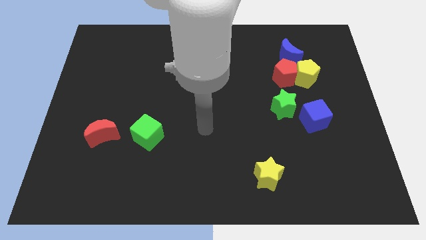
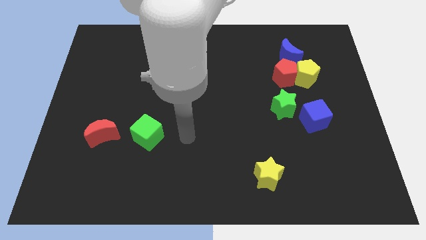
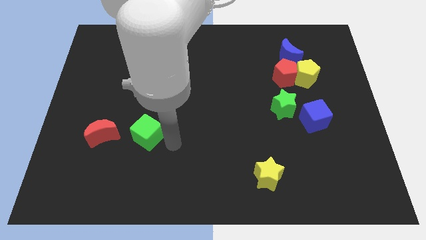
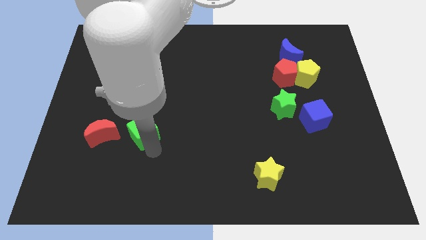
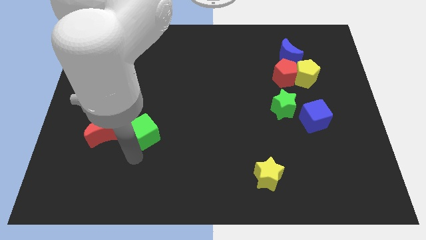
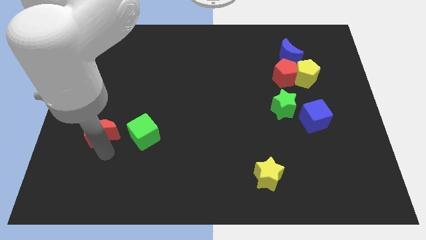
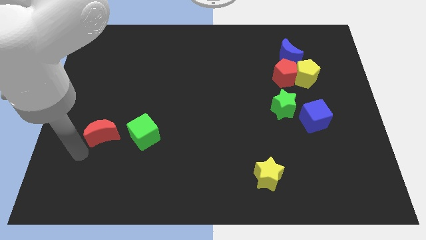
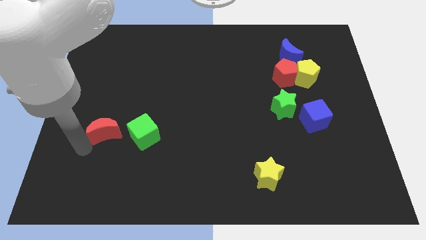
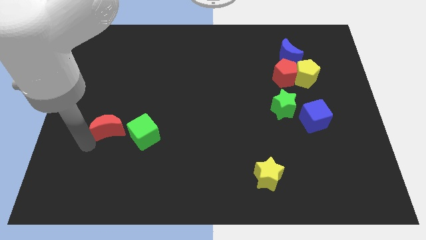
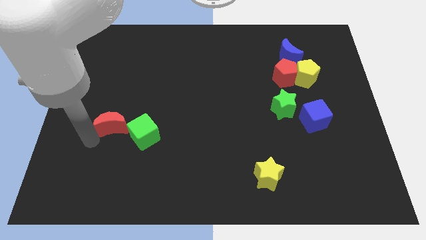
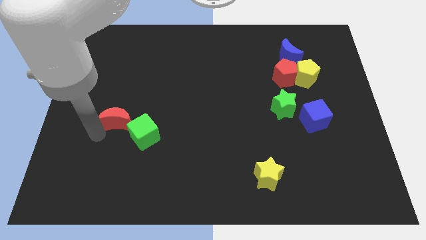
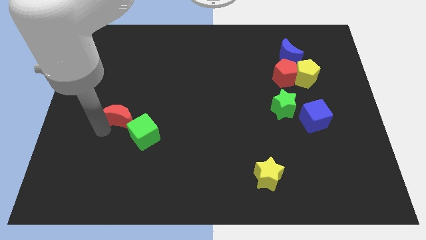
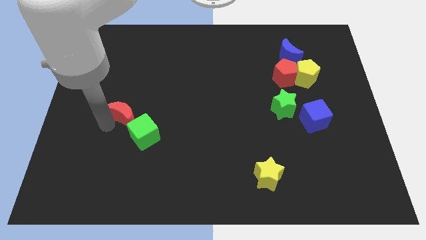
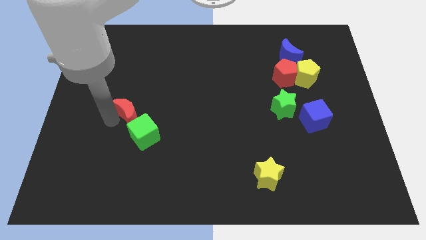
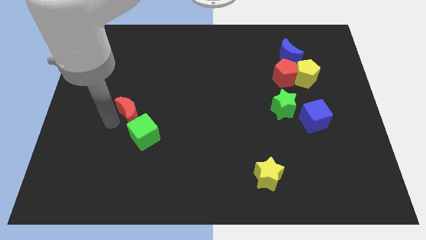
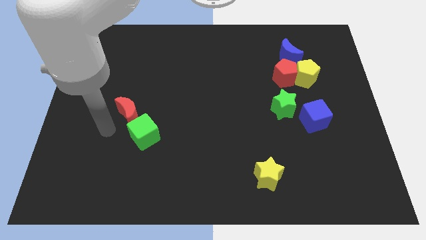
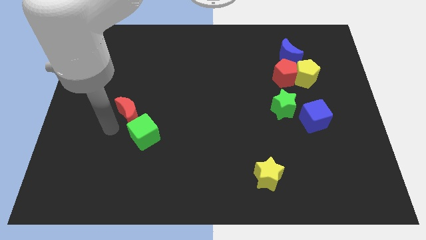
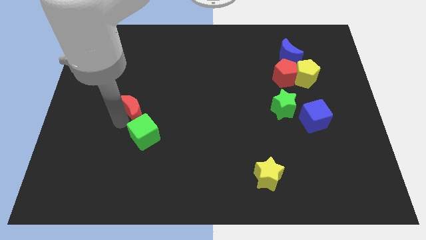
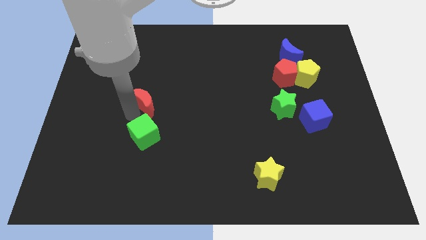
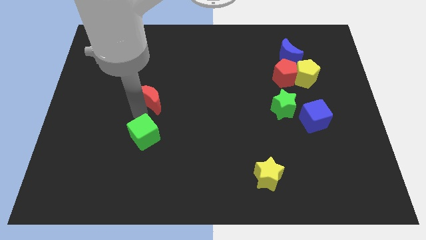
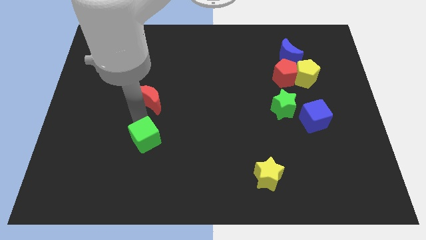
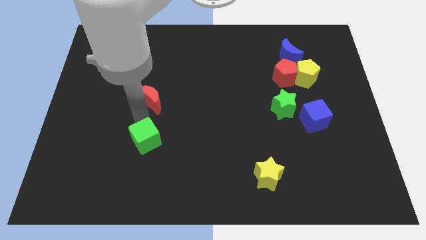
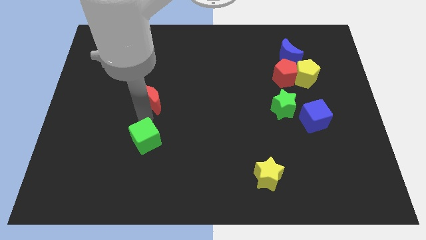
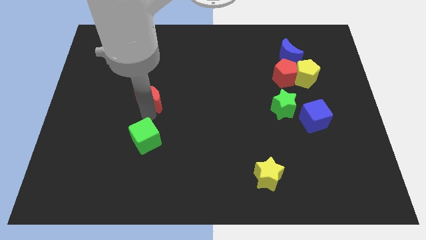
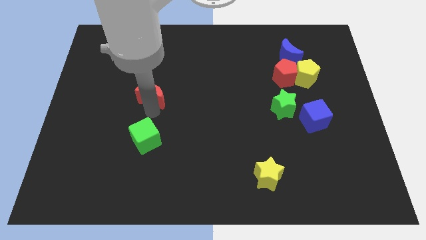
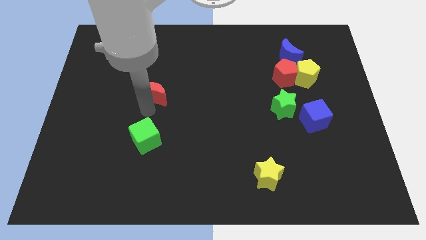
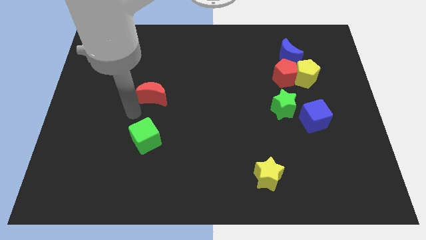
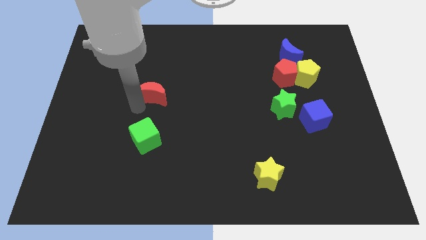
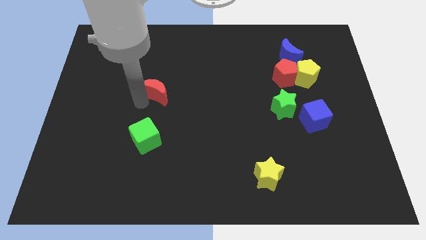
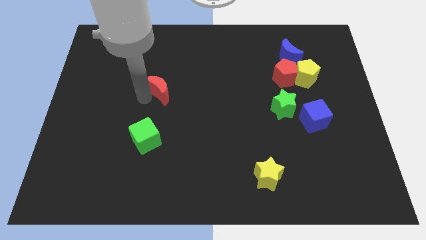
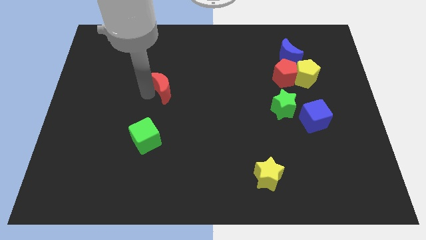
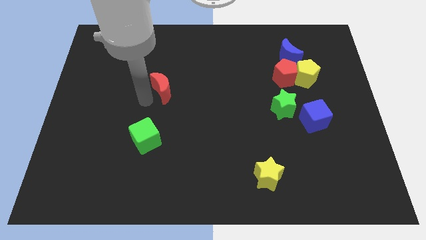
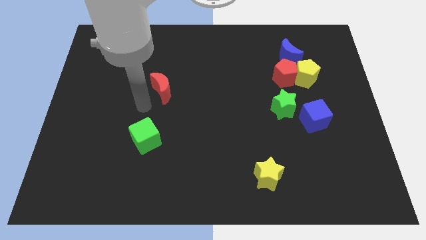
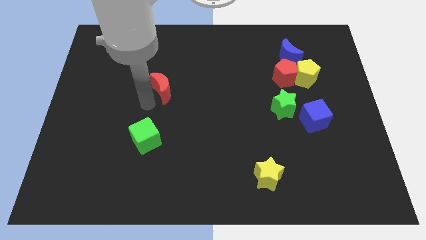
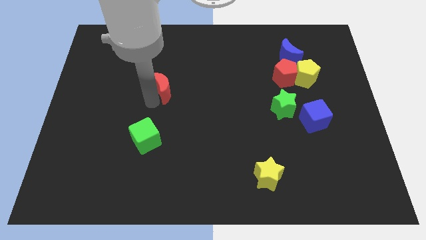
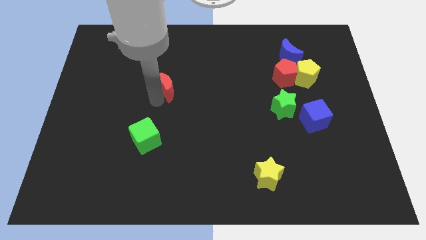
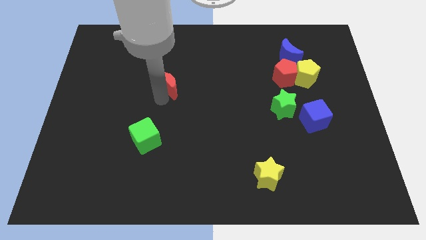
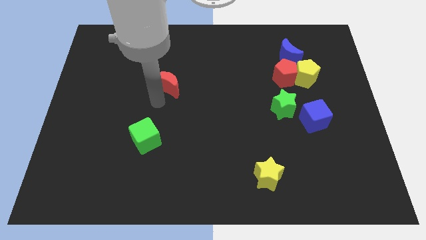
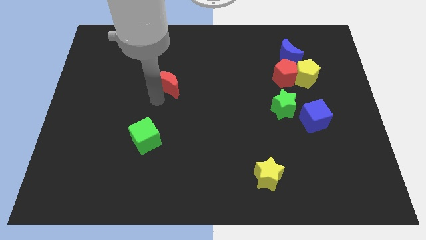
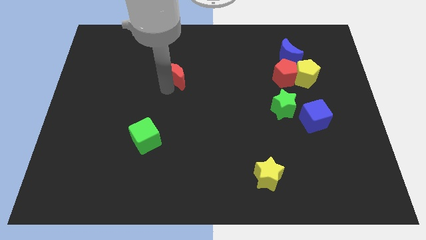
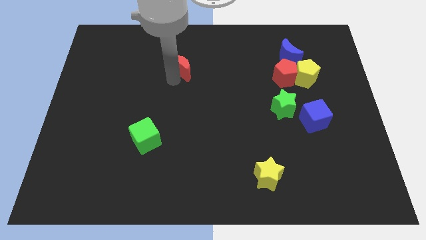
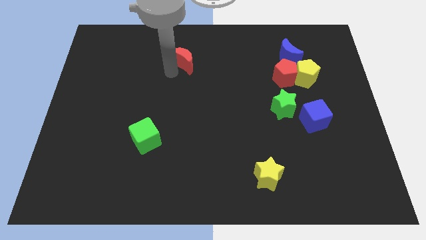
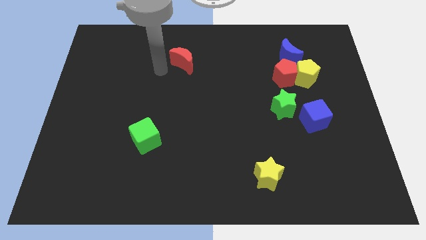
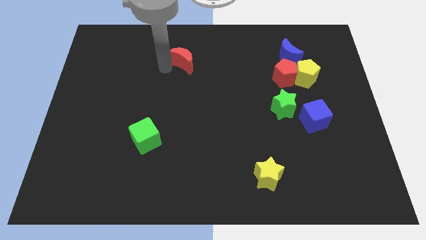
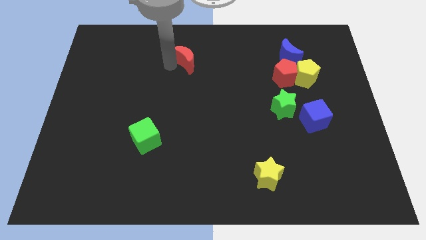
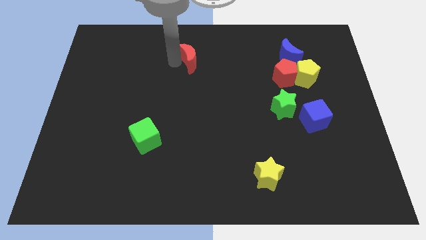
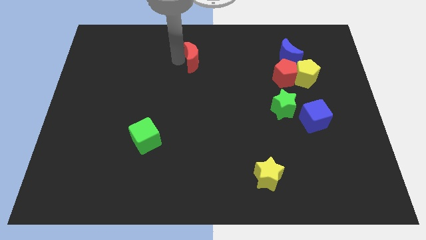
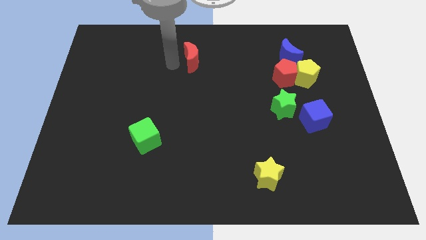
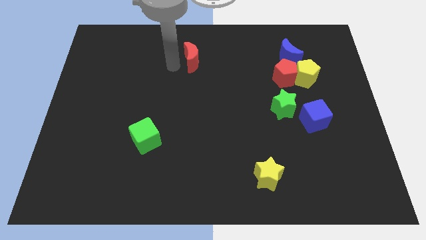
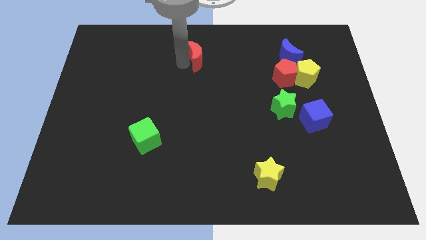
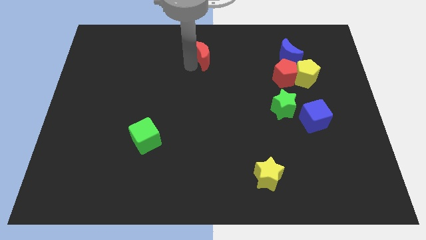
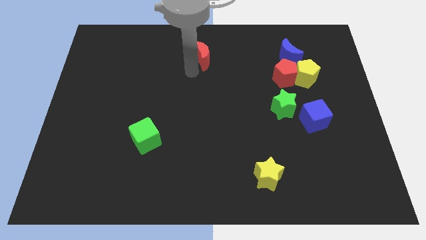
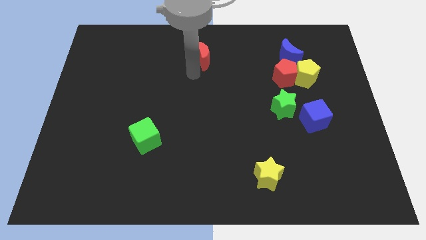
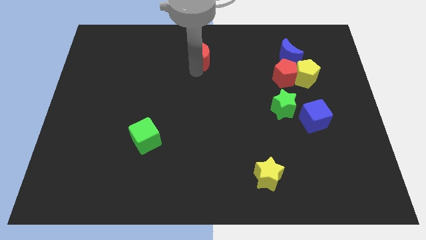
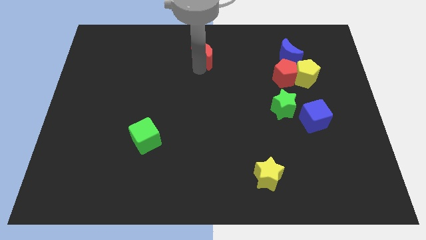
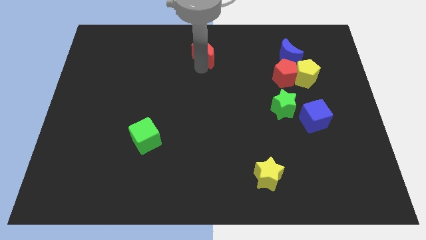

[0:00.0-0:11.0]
push the red moon to the top side

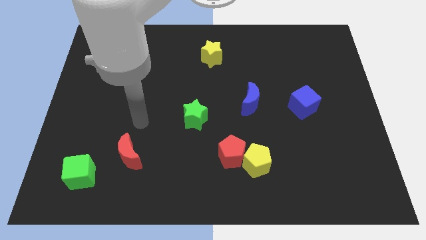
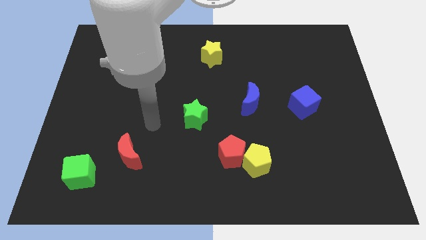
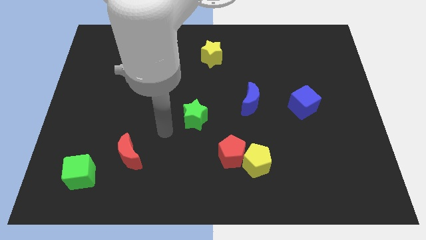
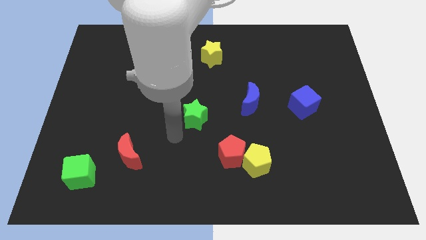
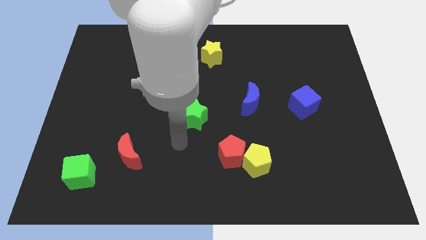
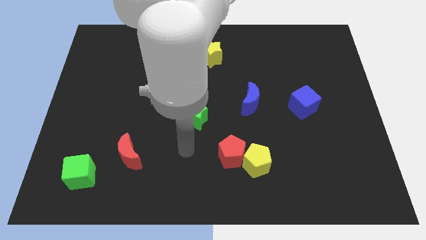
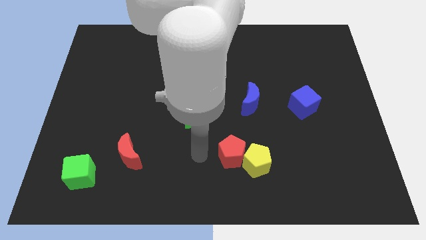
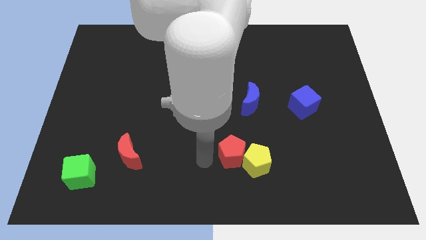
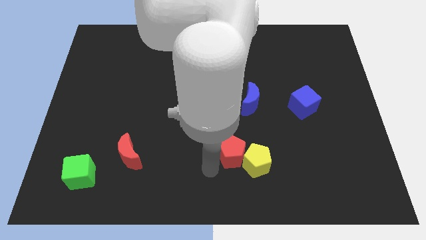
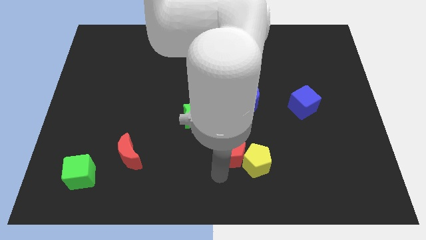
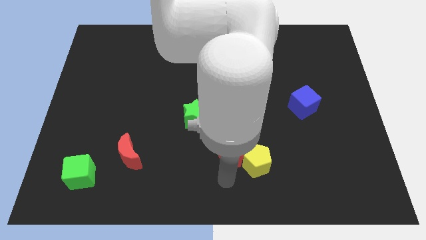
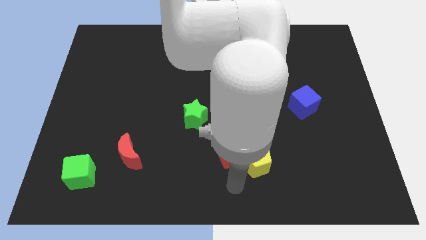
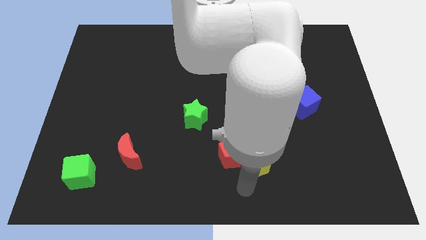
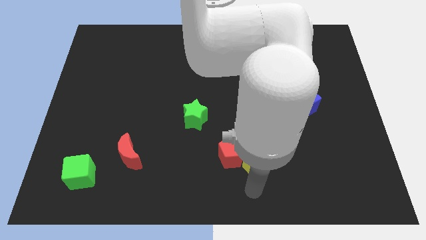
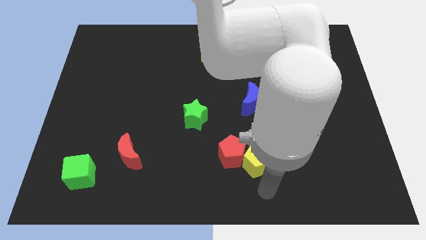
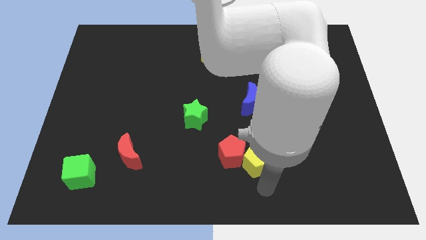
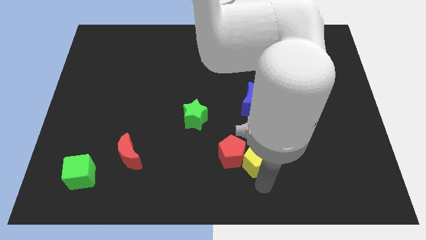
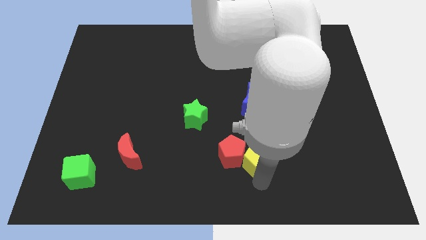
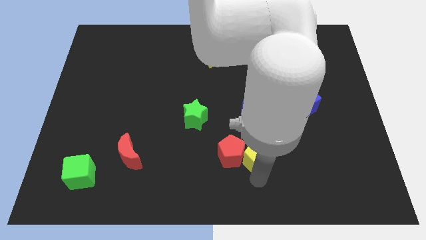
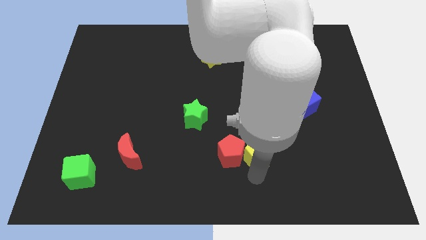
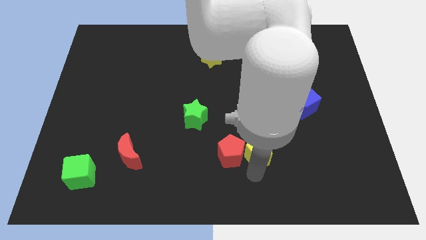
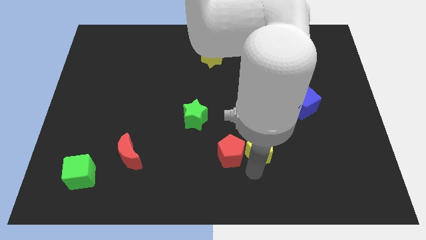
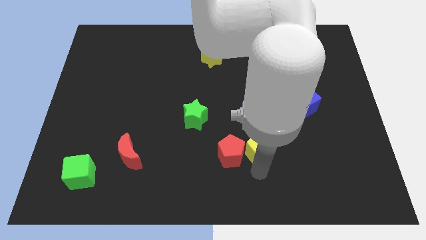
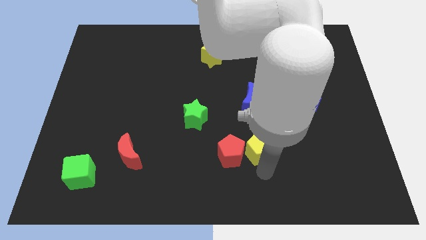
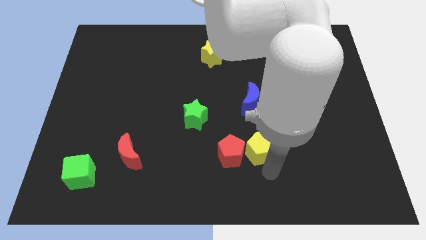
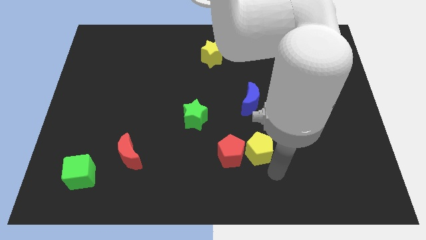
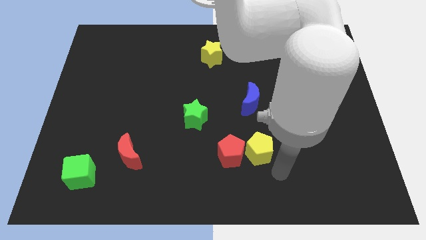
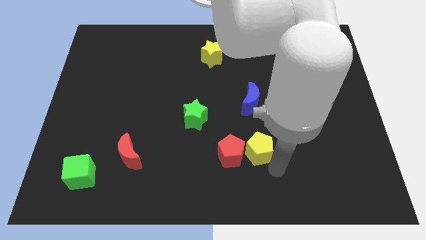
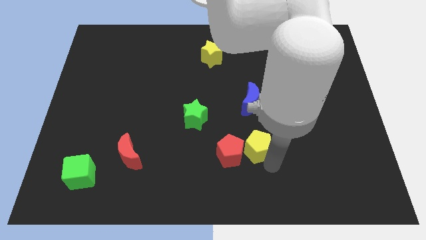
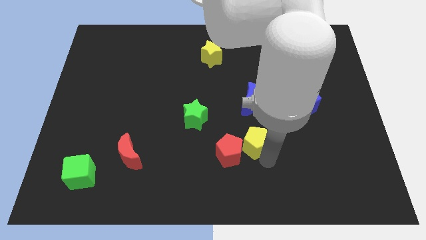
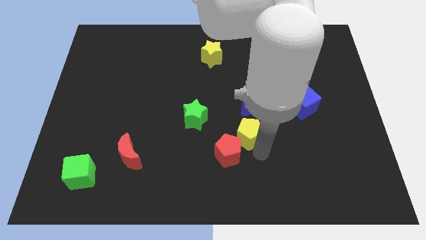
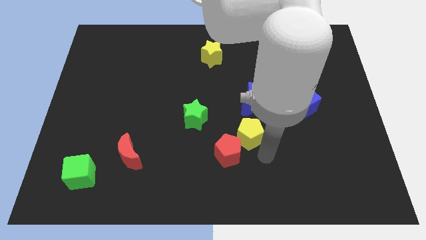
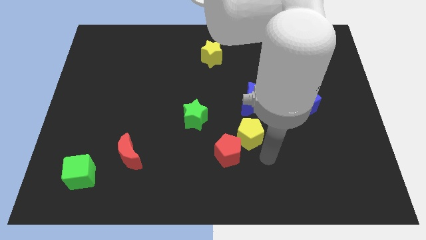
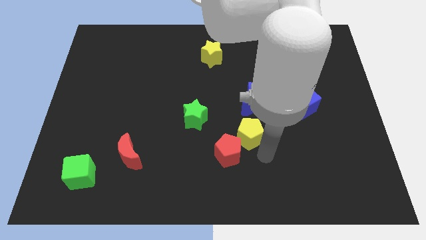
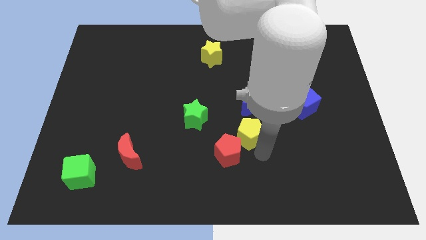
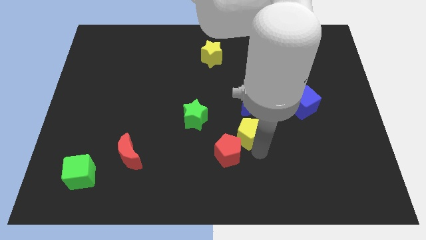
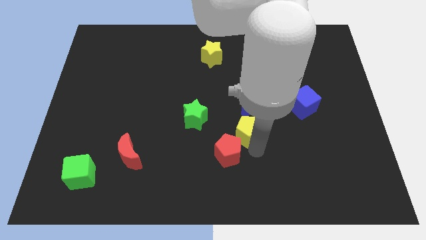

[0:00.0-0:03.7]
slide the yellow pentagon to the middle
